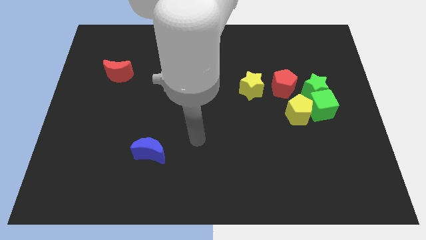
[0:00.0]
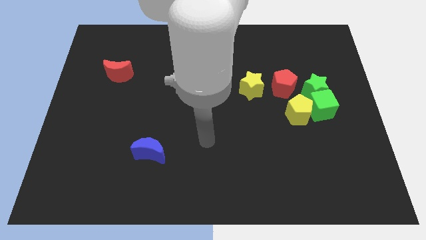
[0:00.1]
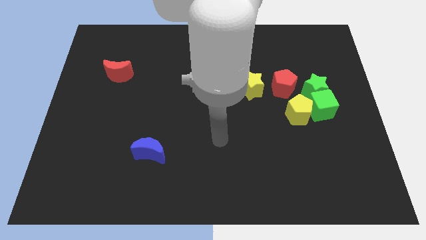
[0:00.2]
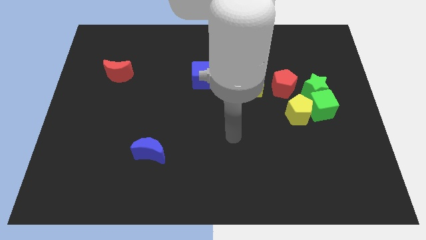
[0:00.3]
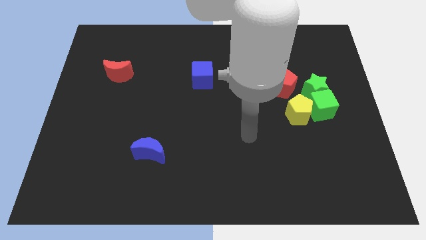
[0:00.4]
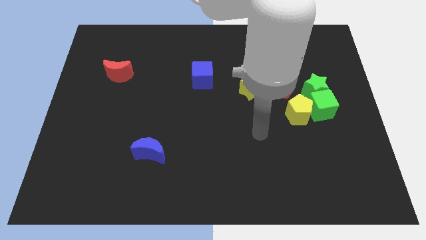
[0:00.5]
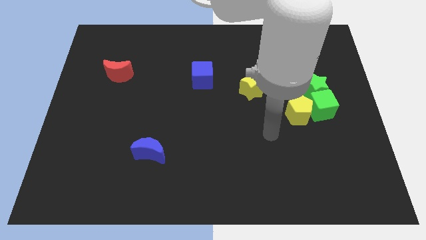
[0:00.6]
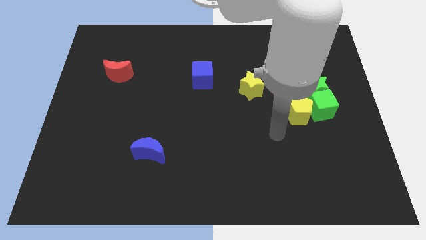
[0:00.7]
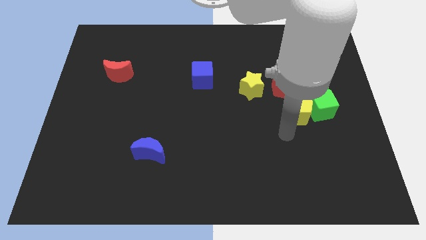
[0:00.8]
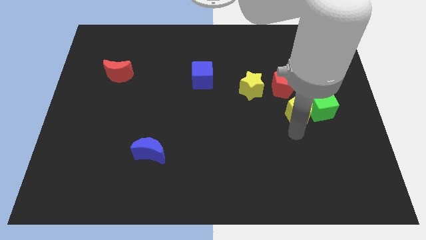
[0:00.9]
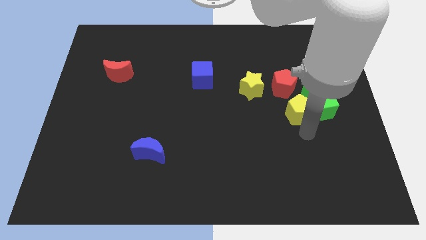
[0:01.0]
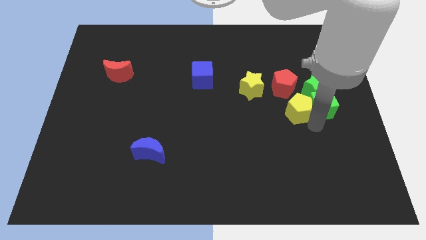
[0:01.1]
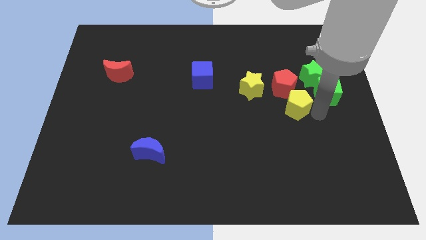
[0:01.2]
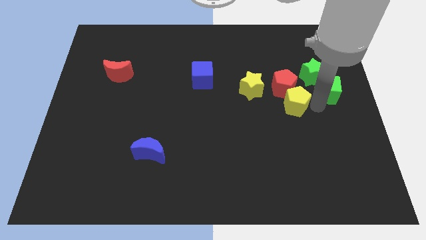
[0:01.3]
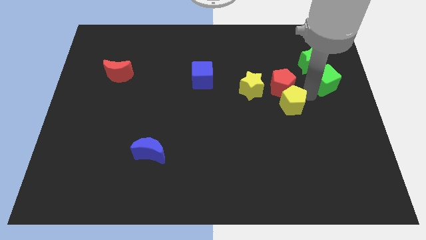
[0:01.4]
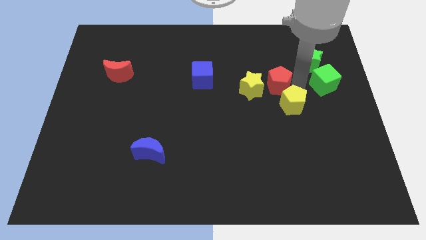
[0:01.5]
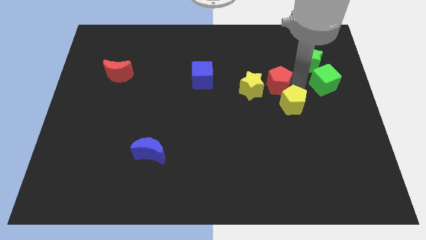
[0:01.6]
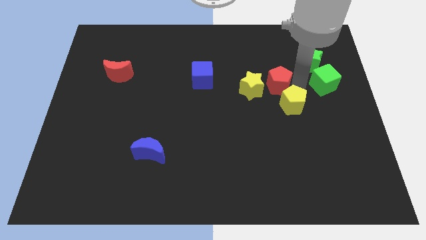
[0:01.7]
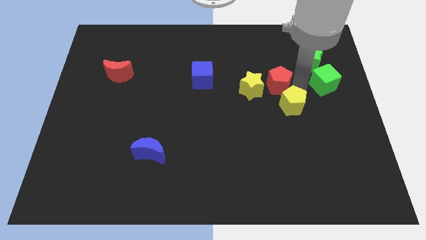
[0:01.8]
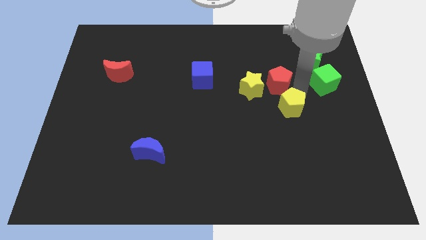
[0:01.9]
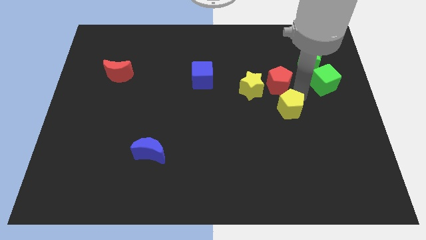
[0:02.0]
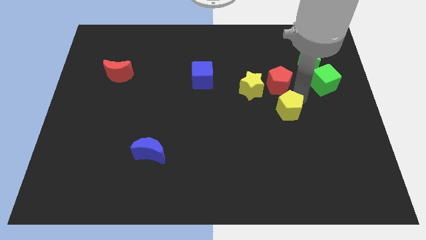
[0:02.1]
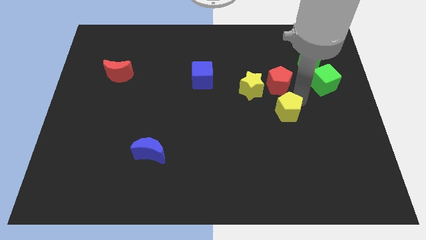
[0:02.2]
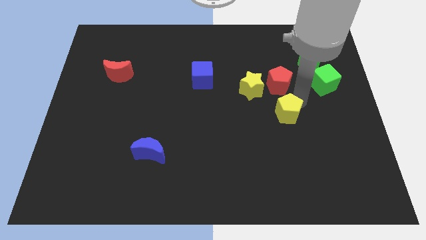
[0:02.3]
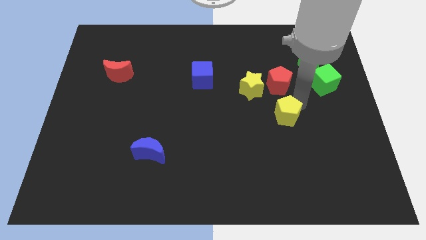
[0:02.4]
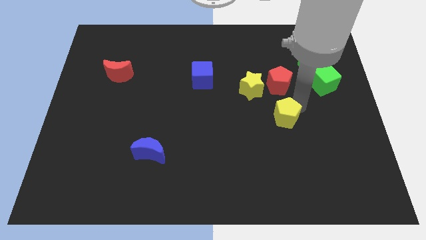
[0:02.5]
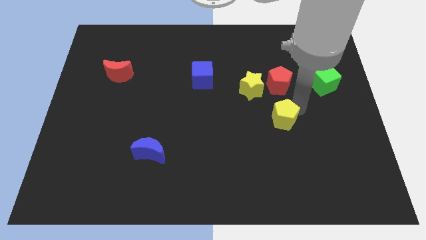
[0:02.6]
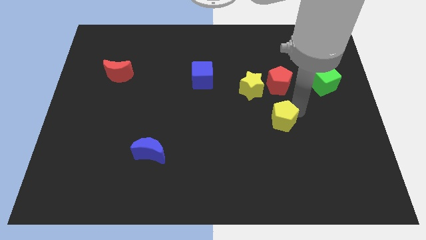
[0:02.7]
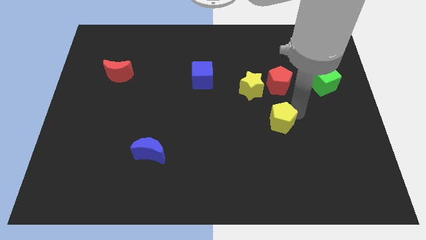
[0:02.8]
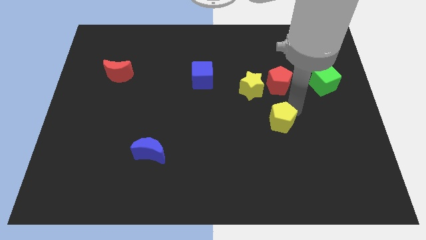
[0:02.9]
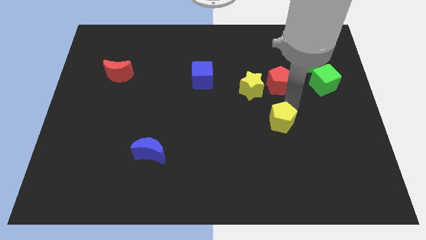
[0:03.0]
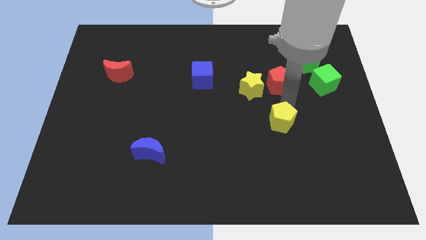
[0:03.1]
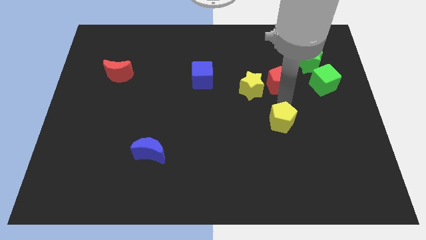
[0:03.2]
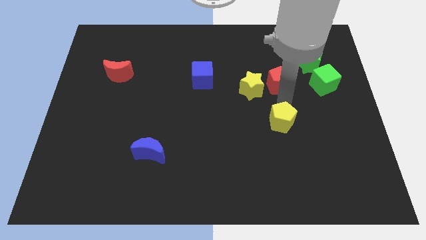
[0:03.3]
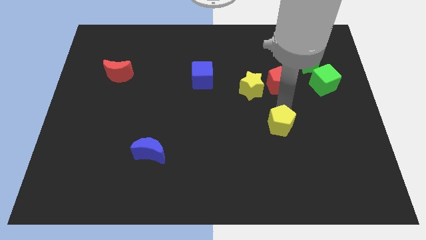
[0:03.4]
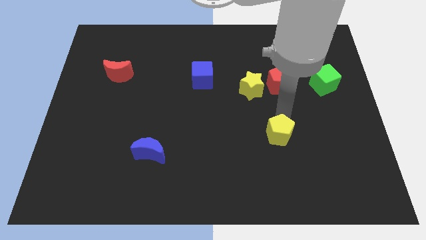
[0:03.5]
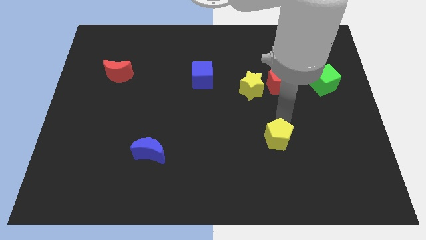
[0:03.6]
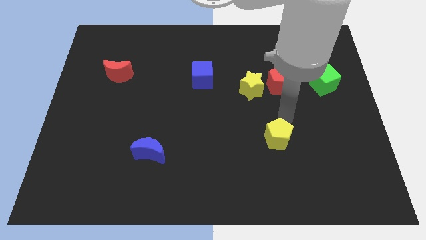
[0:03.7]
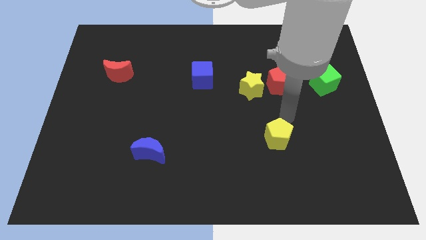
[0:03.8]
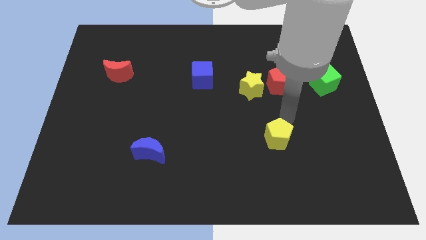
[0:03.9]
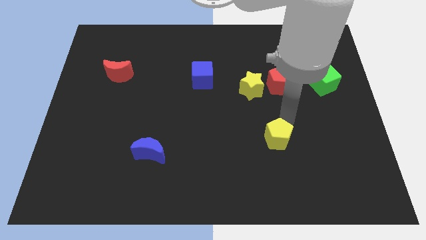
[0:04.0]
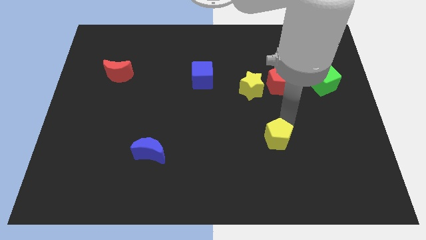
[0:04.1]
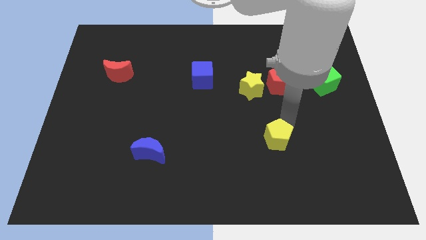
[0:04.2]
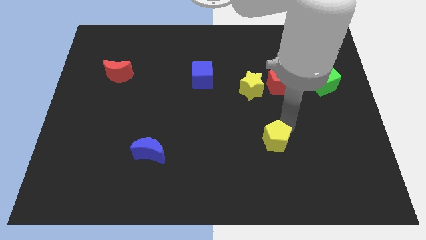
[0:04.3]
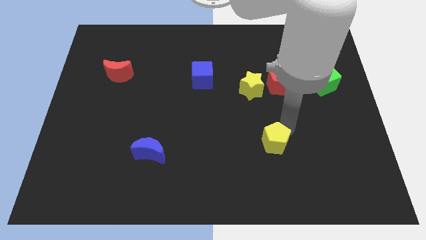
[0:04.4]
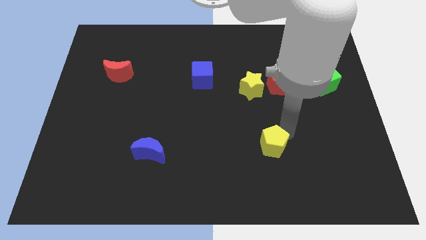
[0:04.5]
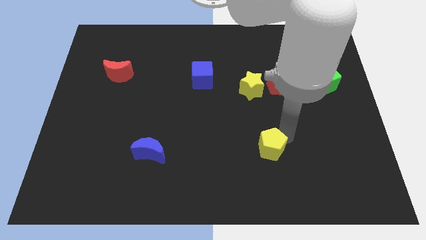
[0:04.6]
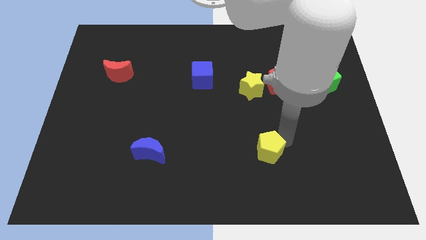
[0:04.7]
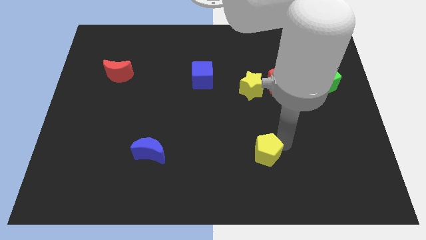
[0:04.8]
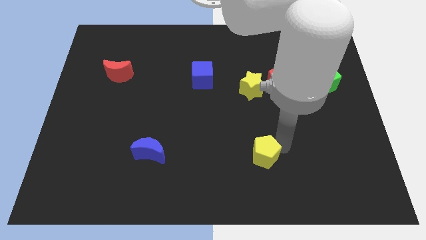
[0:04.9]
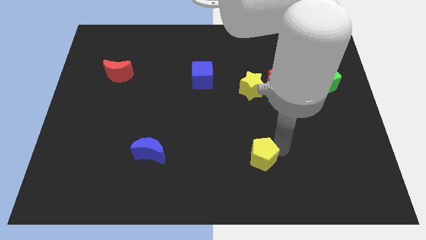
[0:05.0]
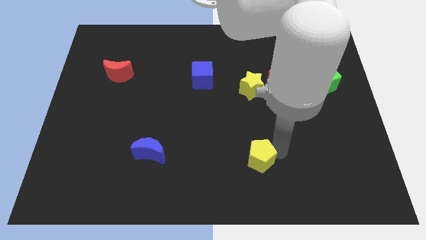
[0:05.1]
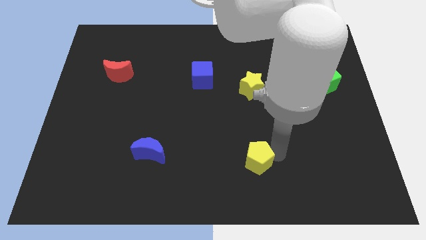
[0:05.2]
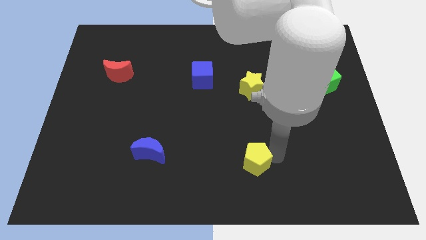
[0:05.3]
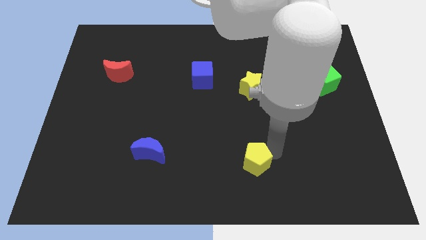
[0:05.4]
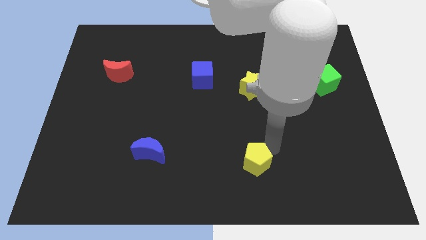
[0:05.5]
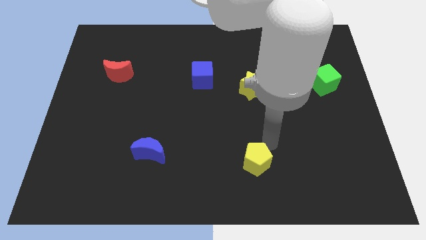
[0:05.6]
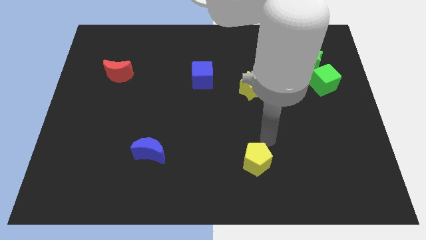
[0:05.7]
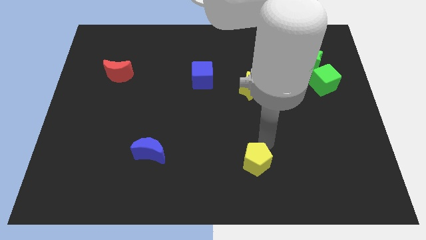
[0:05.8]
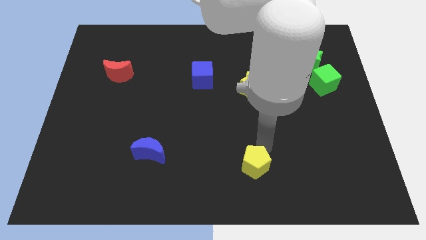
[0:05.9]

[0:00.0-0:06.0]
slide the yellow pentagon to the bottom
